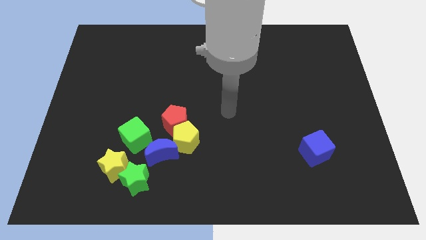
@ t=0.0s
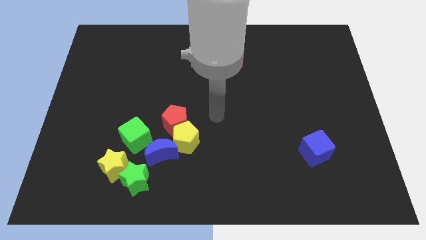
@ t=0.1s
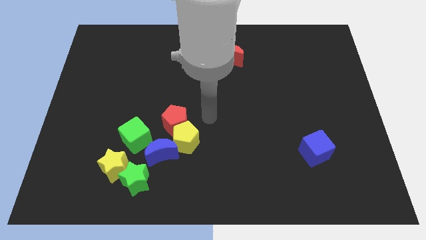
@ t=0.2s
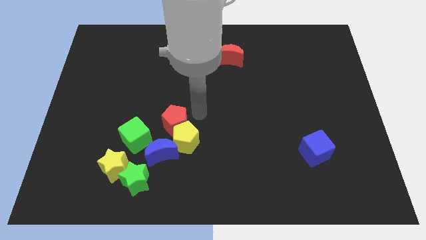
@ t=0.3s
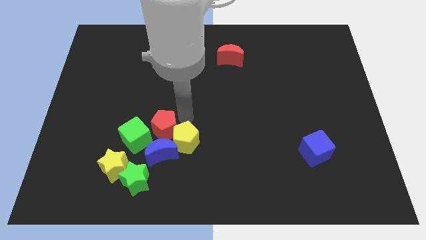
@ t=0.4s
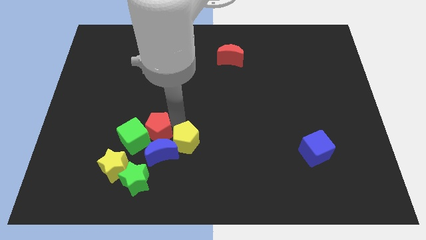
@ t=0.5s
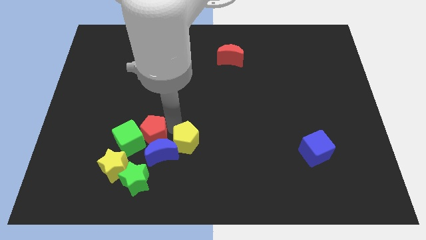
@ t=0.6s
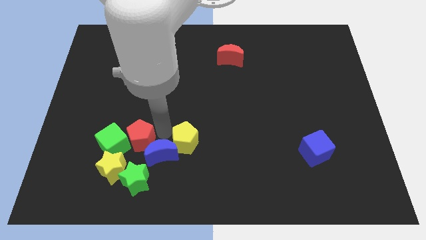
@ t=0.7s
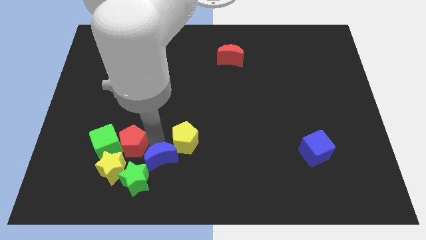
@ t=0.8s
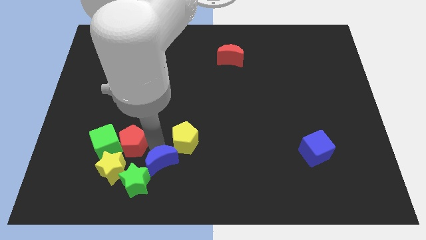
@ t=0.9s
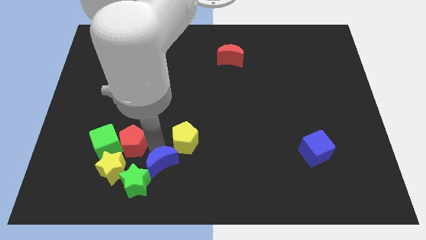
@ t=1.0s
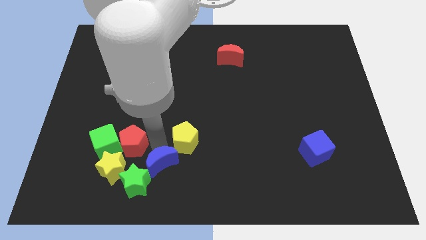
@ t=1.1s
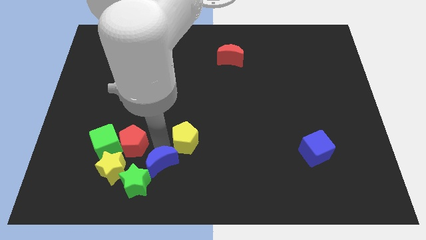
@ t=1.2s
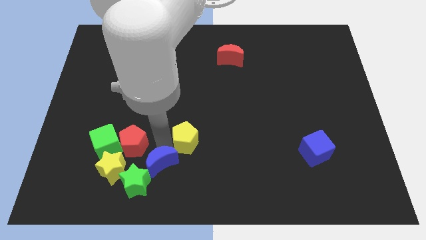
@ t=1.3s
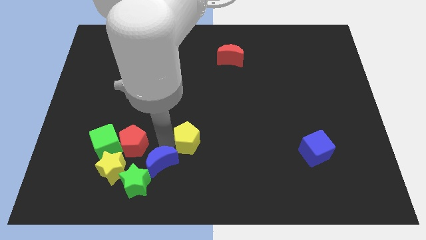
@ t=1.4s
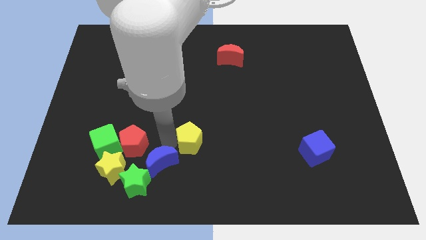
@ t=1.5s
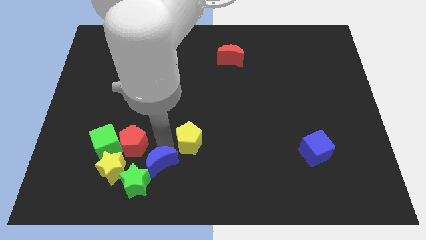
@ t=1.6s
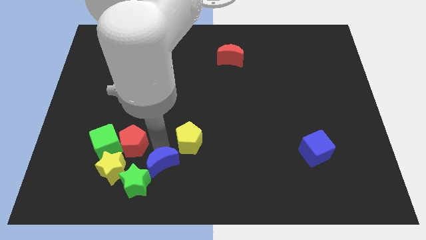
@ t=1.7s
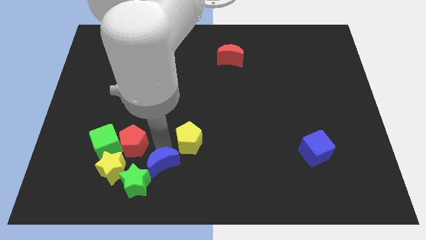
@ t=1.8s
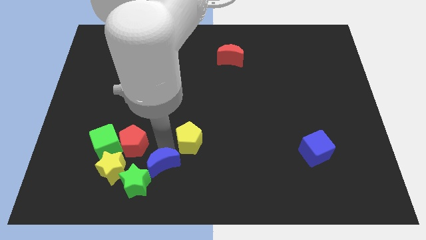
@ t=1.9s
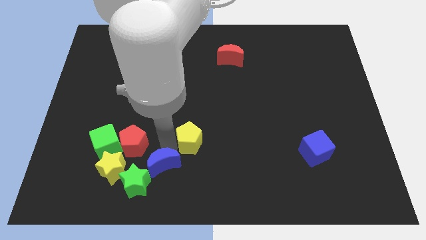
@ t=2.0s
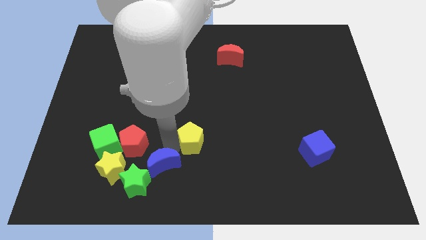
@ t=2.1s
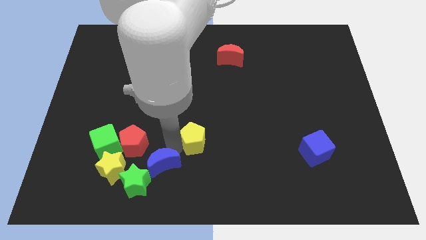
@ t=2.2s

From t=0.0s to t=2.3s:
pull the yellow pentagon apart from the red pentagon and blue moon

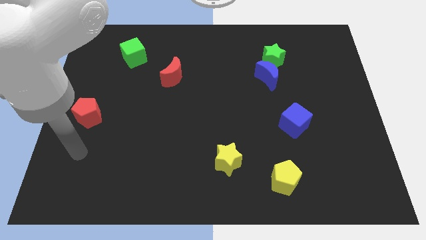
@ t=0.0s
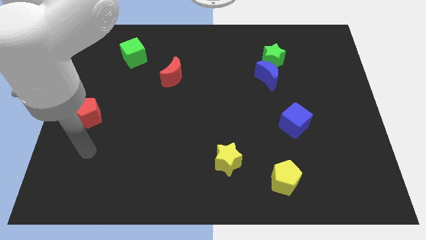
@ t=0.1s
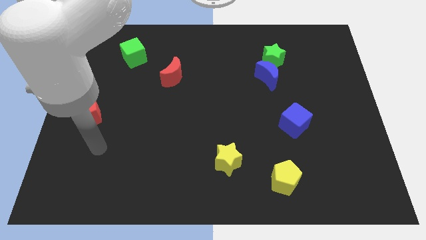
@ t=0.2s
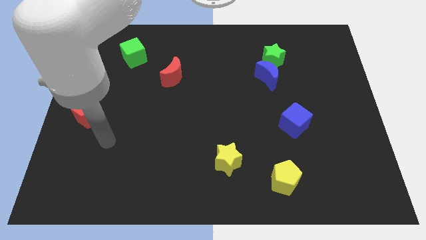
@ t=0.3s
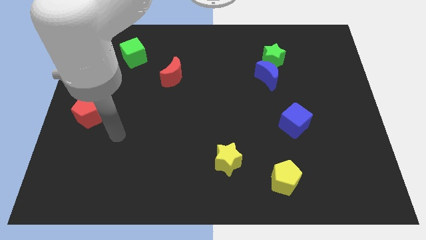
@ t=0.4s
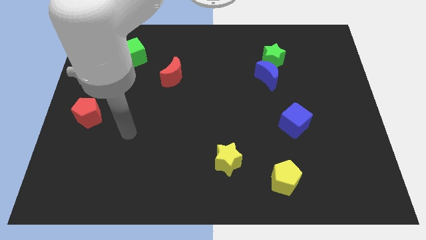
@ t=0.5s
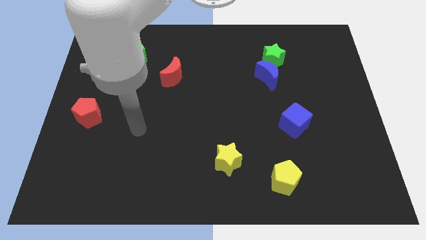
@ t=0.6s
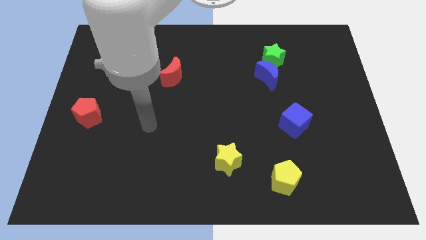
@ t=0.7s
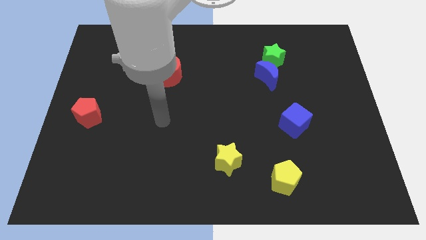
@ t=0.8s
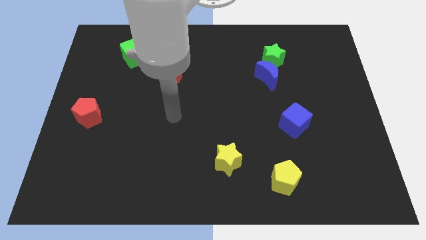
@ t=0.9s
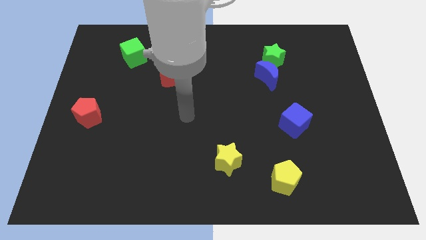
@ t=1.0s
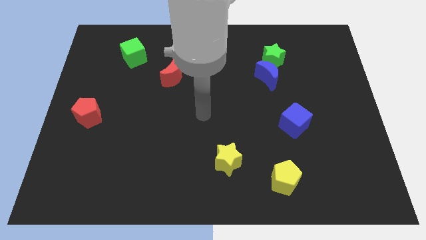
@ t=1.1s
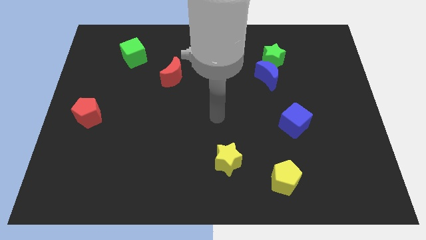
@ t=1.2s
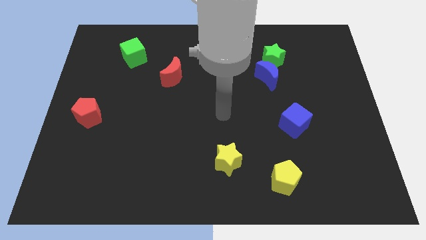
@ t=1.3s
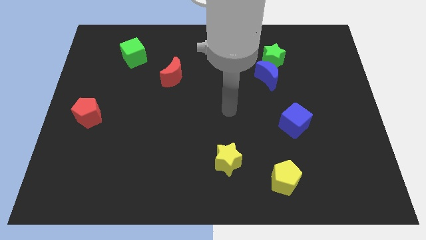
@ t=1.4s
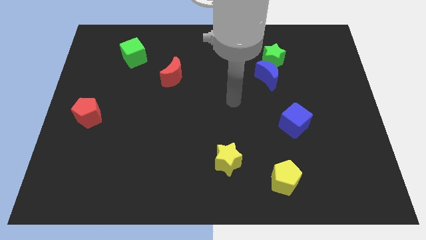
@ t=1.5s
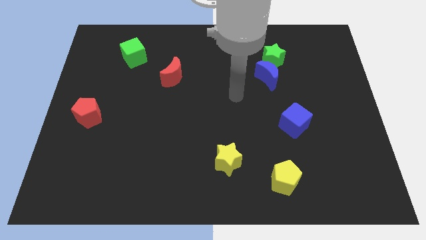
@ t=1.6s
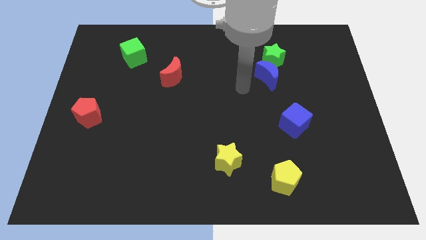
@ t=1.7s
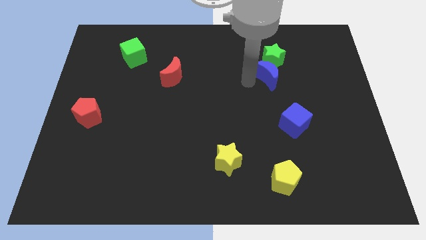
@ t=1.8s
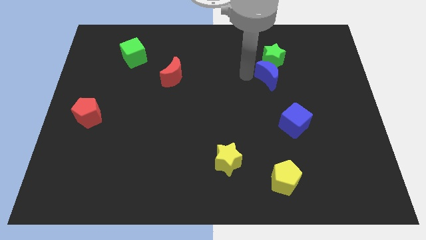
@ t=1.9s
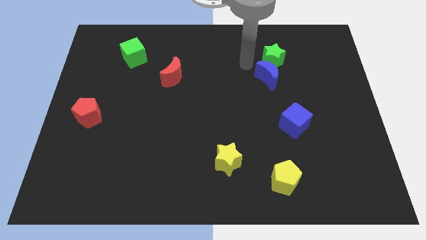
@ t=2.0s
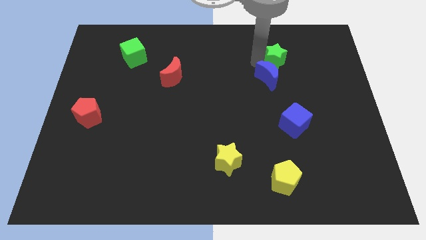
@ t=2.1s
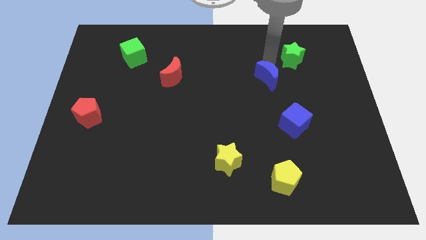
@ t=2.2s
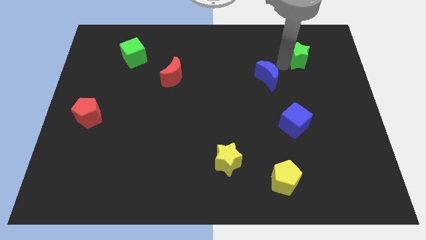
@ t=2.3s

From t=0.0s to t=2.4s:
pull the blue moon apart from the green star

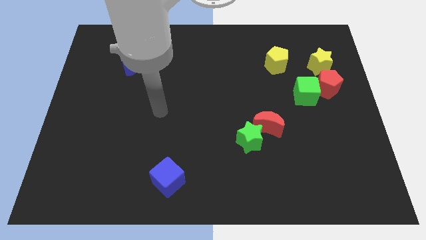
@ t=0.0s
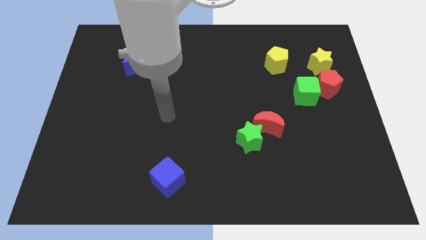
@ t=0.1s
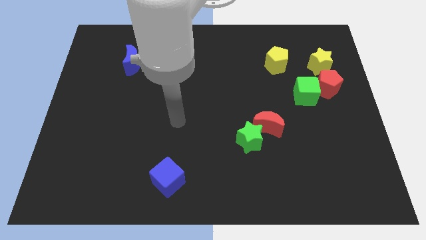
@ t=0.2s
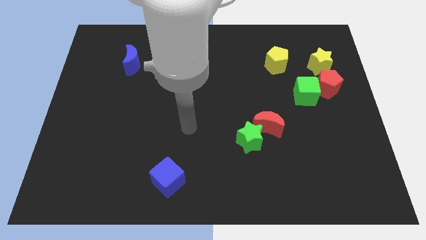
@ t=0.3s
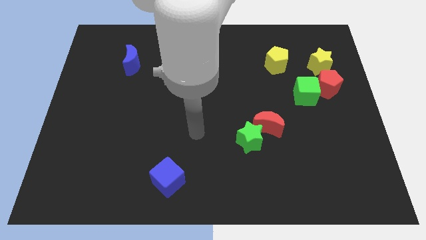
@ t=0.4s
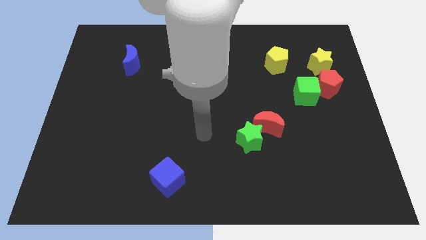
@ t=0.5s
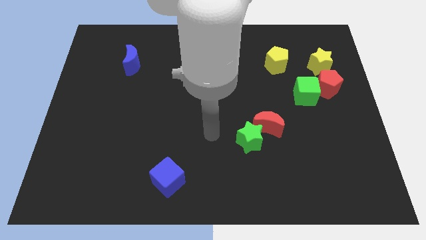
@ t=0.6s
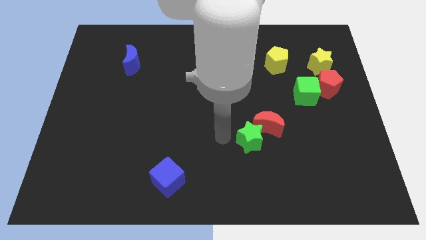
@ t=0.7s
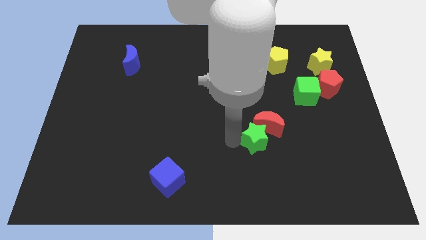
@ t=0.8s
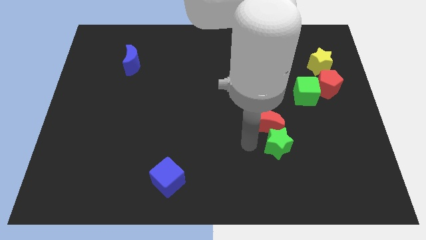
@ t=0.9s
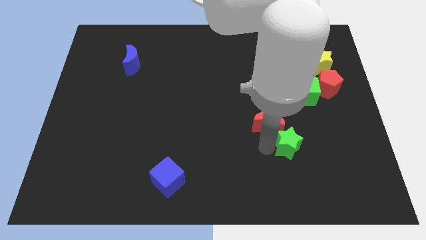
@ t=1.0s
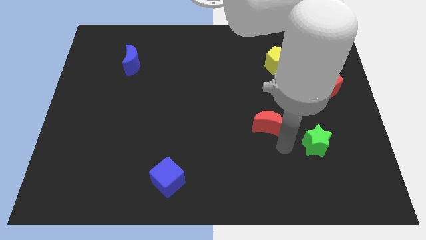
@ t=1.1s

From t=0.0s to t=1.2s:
move the red moon away from the green star

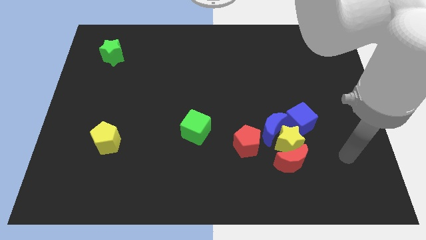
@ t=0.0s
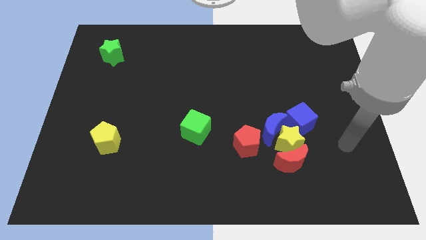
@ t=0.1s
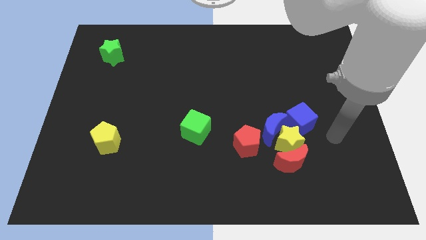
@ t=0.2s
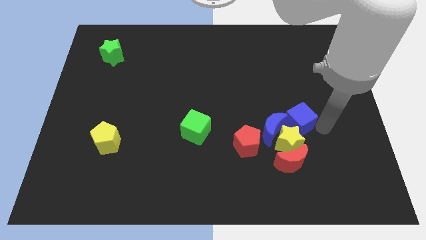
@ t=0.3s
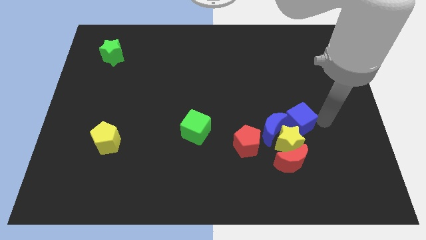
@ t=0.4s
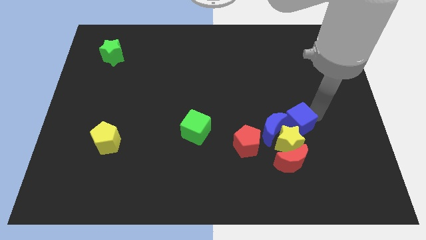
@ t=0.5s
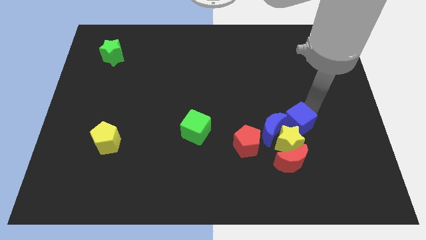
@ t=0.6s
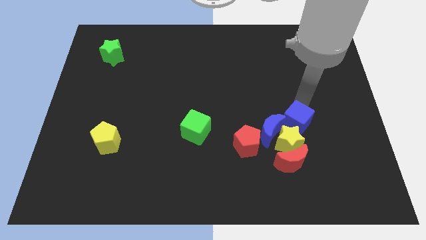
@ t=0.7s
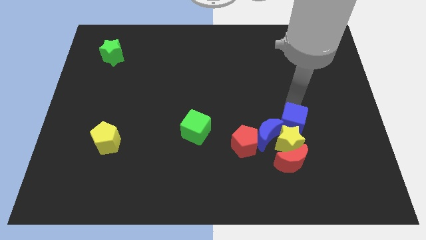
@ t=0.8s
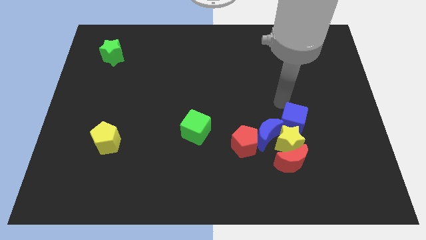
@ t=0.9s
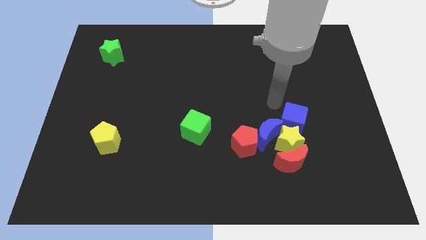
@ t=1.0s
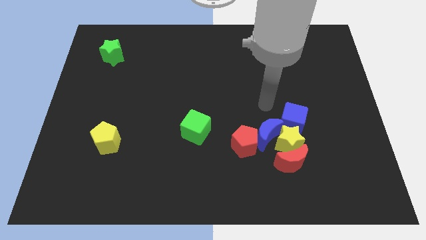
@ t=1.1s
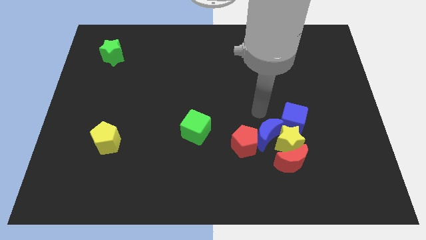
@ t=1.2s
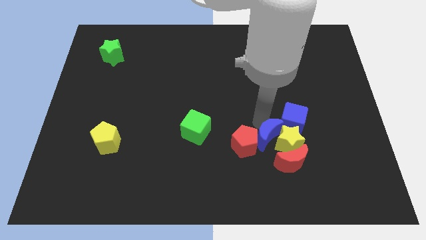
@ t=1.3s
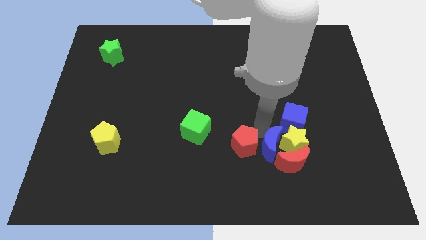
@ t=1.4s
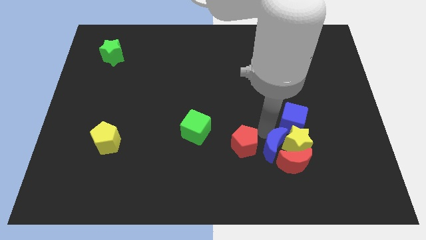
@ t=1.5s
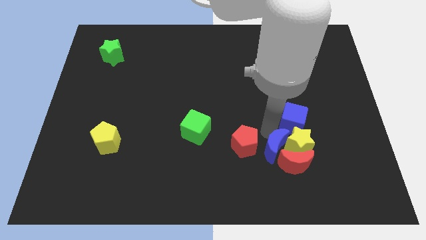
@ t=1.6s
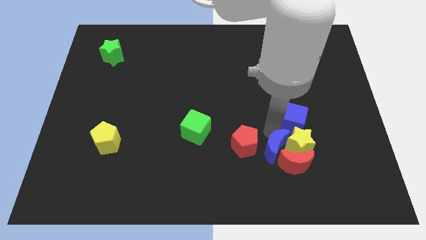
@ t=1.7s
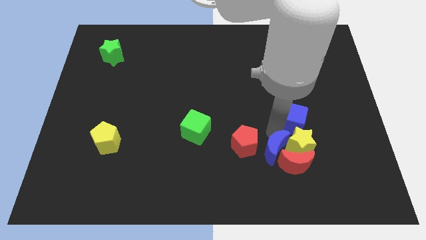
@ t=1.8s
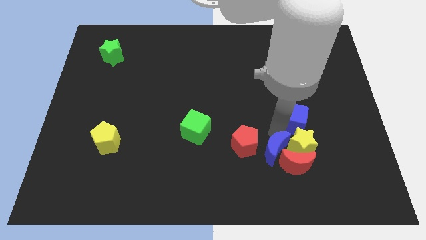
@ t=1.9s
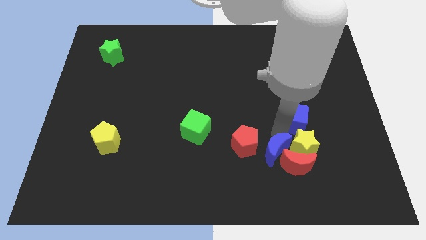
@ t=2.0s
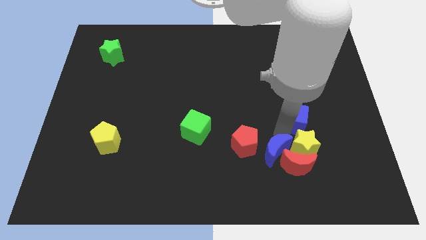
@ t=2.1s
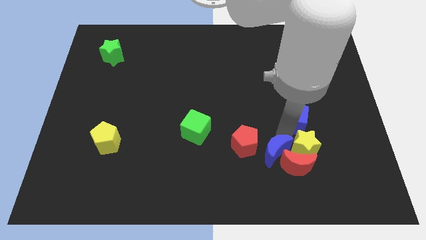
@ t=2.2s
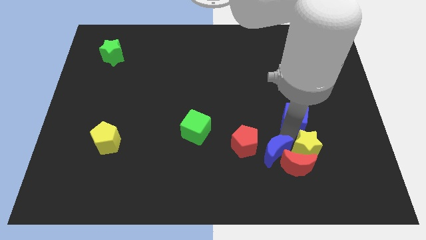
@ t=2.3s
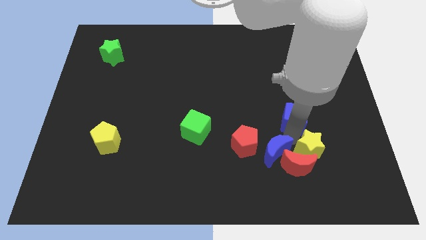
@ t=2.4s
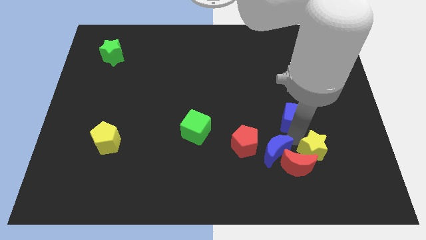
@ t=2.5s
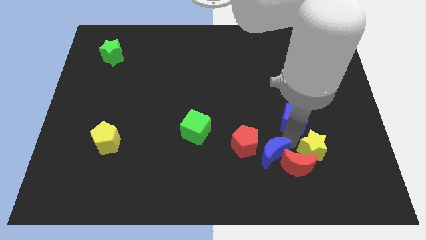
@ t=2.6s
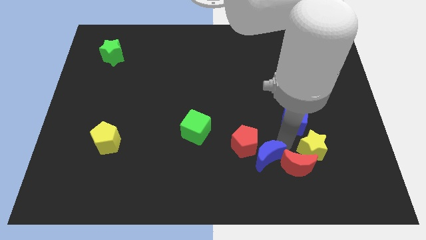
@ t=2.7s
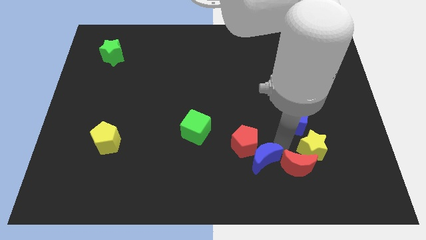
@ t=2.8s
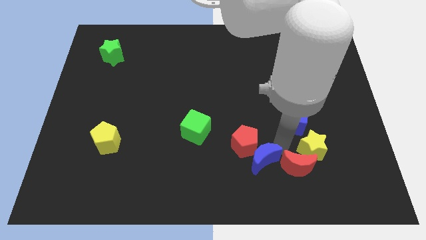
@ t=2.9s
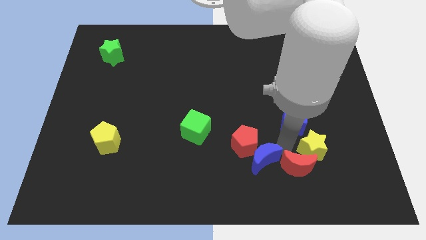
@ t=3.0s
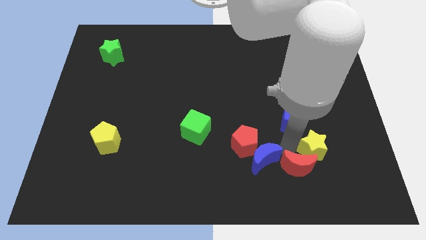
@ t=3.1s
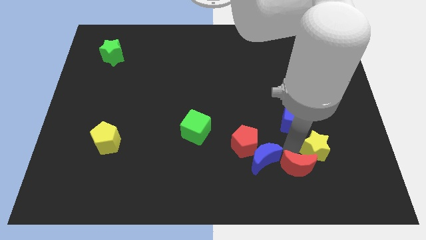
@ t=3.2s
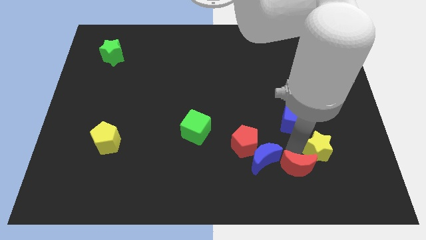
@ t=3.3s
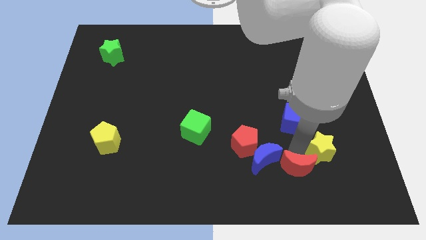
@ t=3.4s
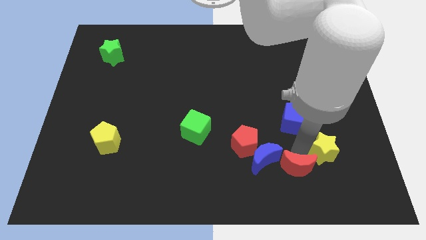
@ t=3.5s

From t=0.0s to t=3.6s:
pull the yellow star apart from the clump
